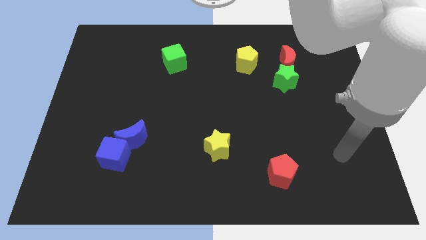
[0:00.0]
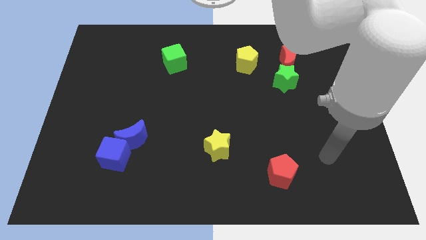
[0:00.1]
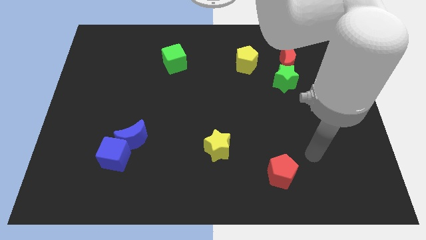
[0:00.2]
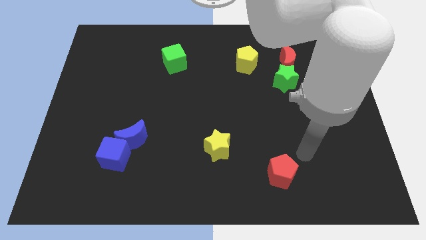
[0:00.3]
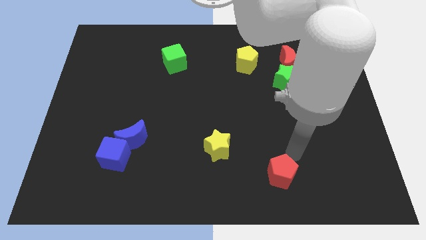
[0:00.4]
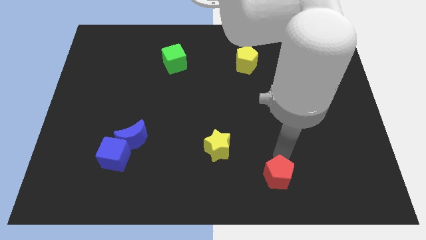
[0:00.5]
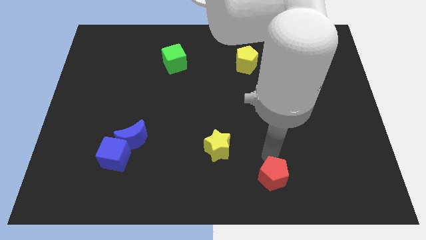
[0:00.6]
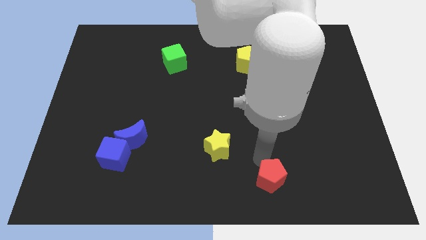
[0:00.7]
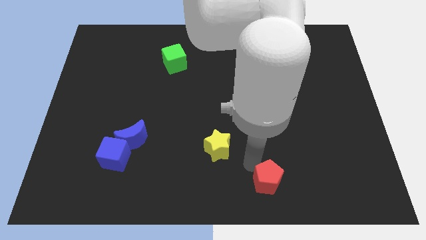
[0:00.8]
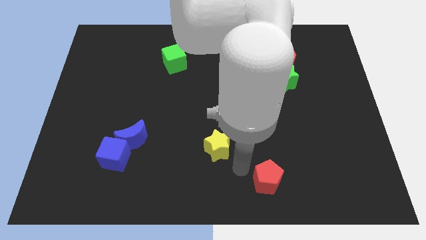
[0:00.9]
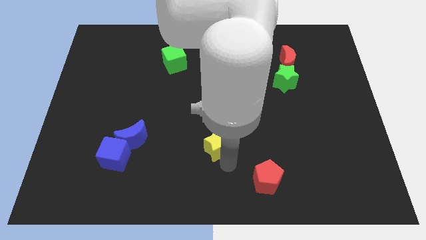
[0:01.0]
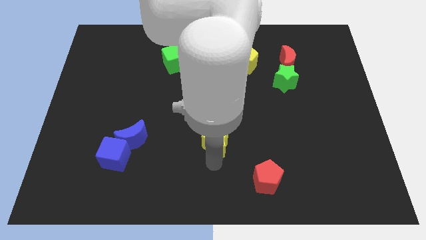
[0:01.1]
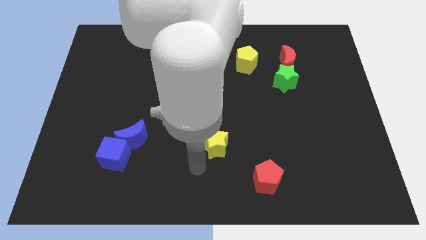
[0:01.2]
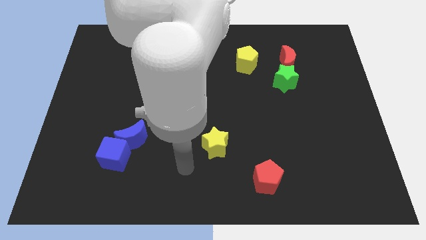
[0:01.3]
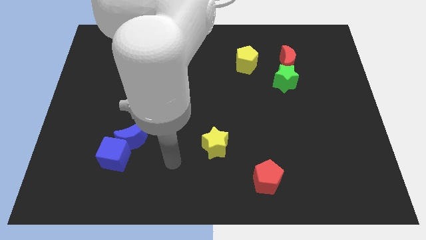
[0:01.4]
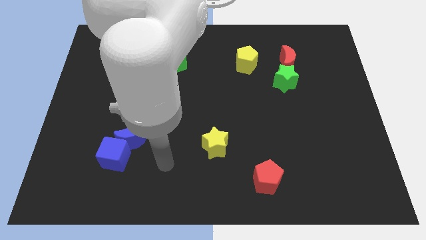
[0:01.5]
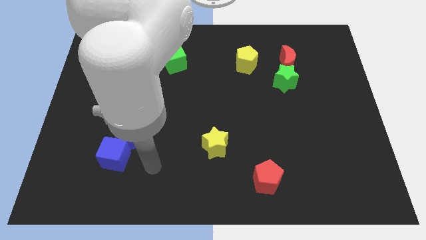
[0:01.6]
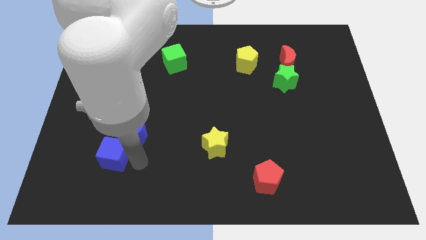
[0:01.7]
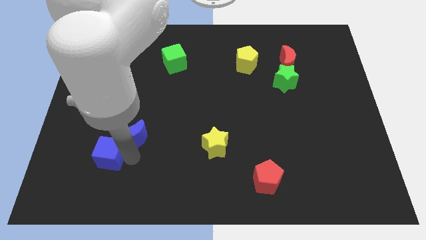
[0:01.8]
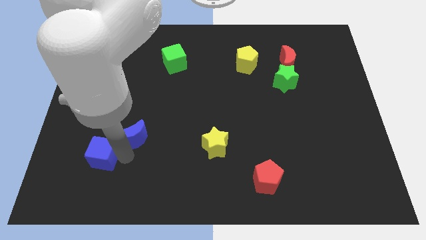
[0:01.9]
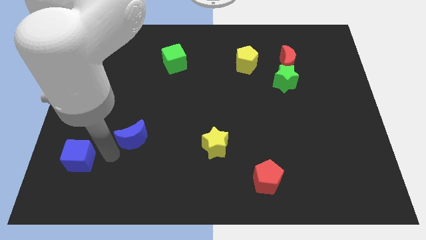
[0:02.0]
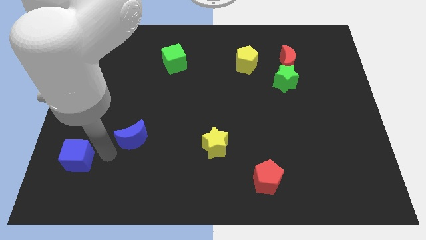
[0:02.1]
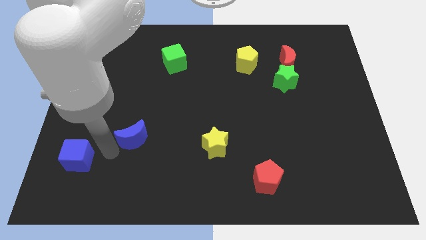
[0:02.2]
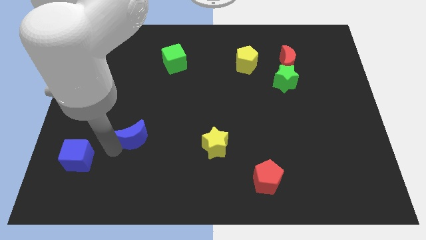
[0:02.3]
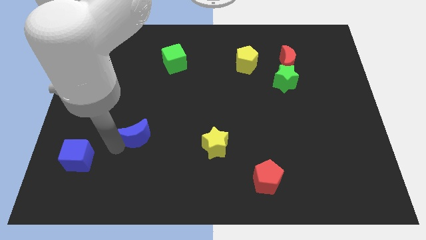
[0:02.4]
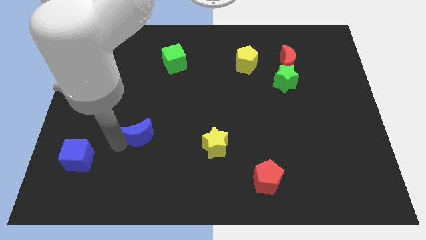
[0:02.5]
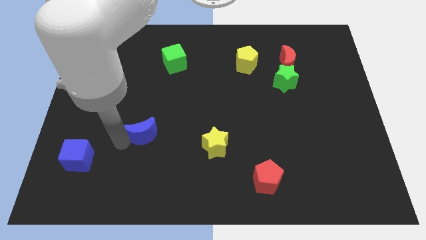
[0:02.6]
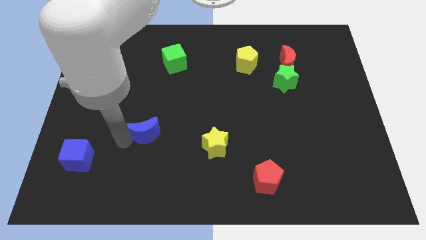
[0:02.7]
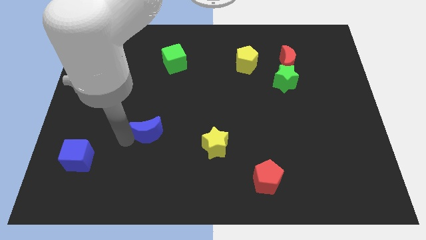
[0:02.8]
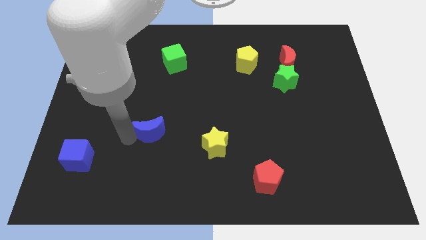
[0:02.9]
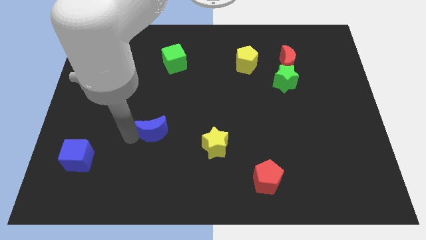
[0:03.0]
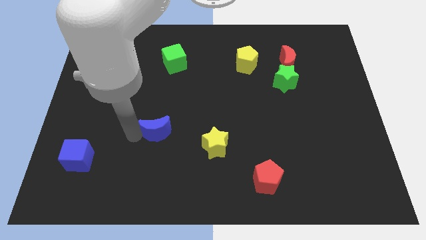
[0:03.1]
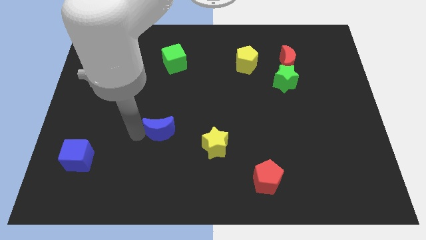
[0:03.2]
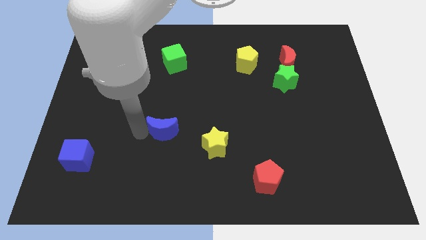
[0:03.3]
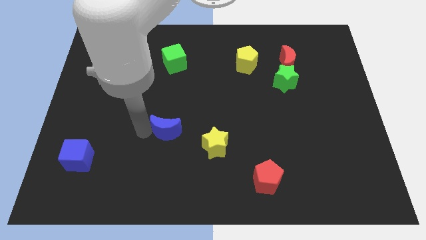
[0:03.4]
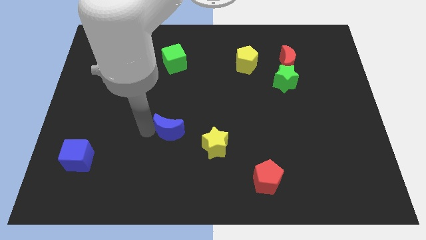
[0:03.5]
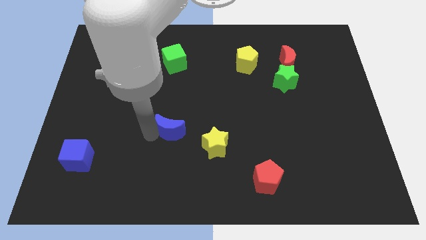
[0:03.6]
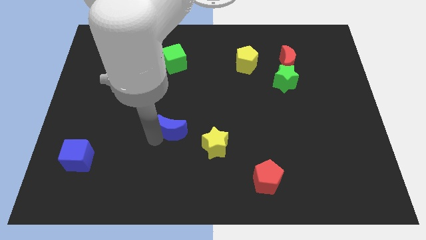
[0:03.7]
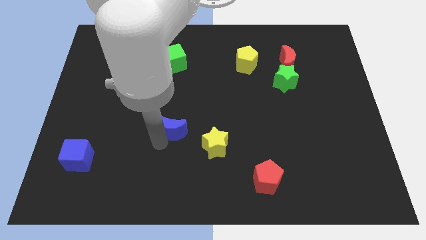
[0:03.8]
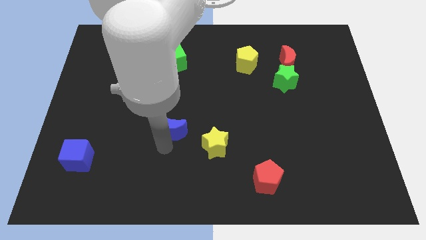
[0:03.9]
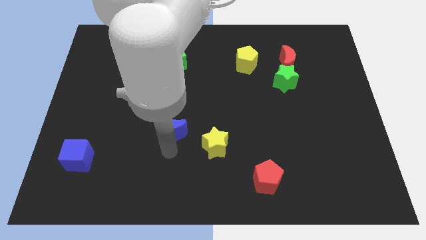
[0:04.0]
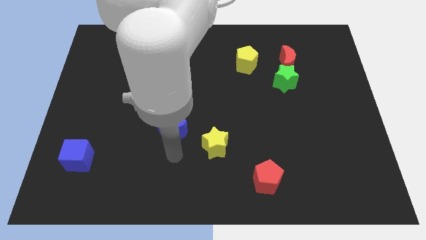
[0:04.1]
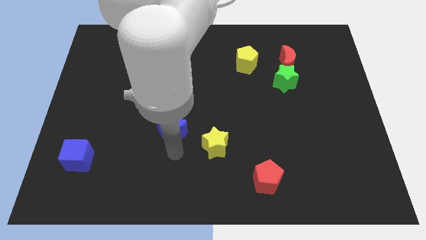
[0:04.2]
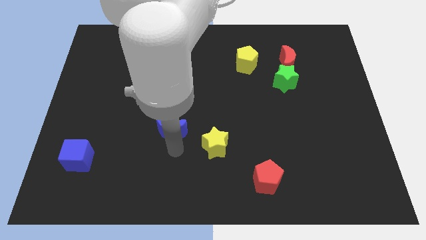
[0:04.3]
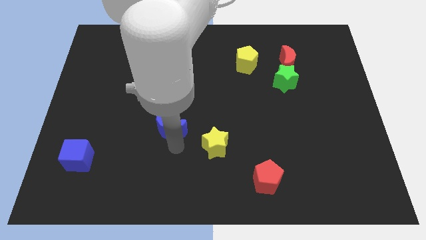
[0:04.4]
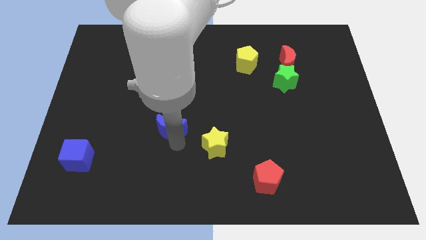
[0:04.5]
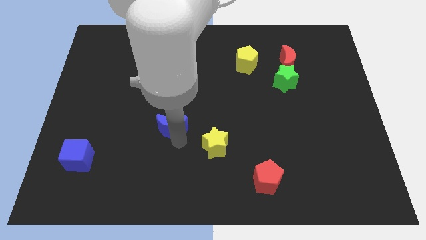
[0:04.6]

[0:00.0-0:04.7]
put the blue moon to the center

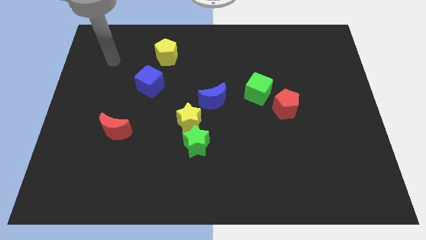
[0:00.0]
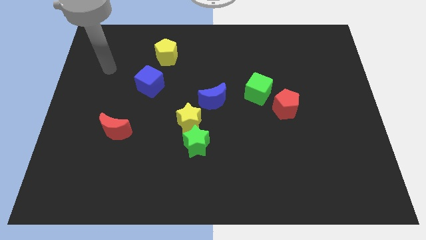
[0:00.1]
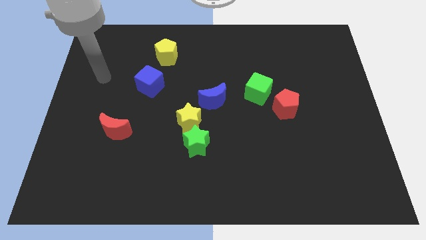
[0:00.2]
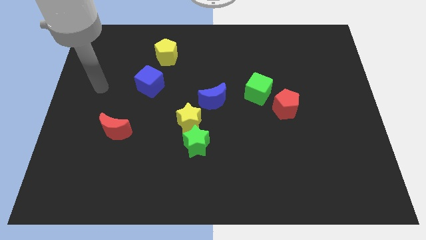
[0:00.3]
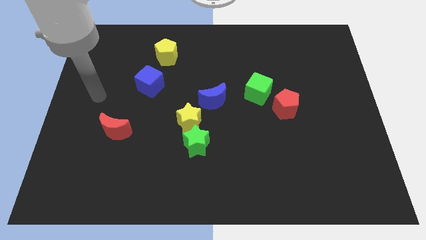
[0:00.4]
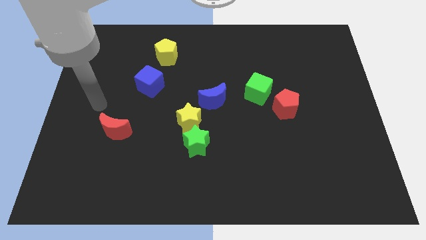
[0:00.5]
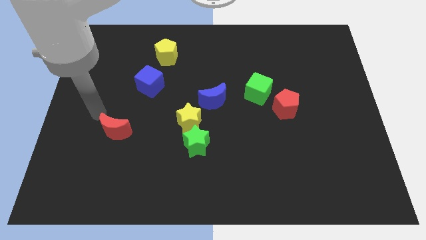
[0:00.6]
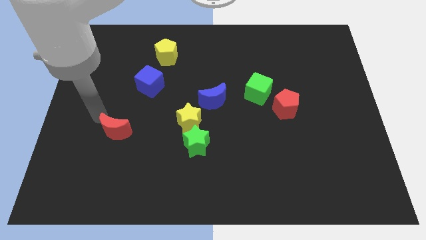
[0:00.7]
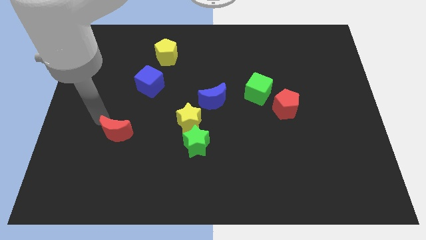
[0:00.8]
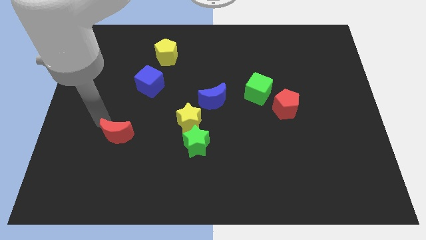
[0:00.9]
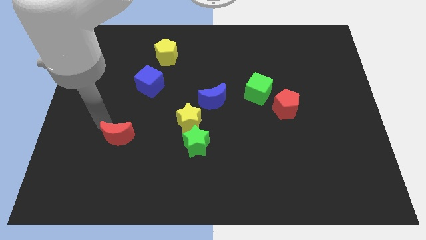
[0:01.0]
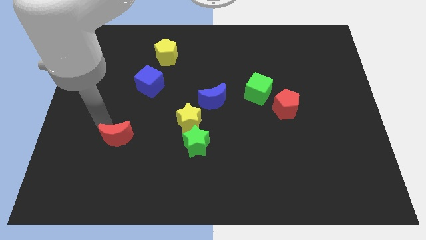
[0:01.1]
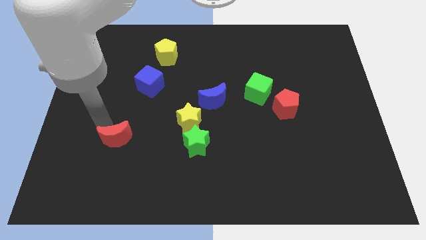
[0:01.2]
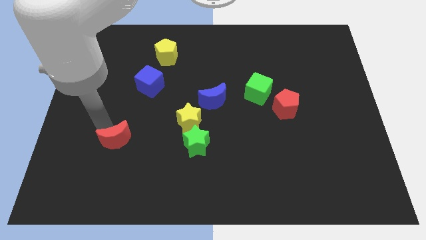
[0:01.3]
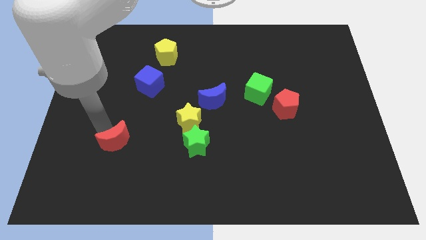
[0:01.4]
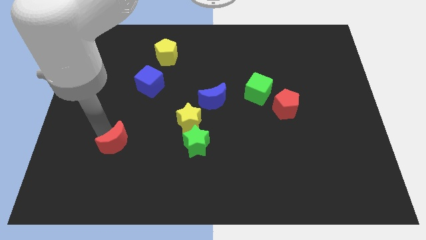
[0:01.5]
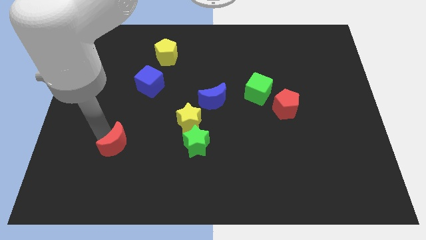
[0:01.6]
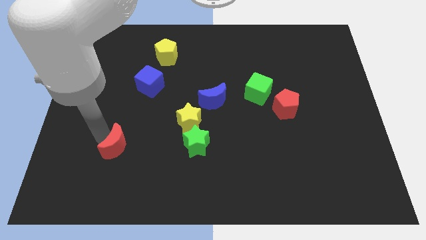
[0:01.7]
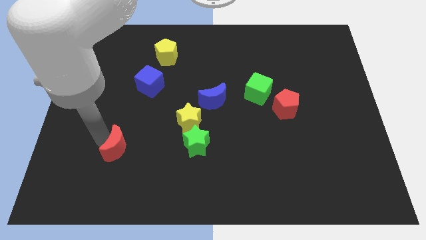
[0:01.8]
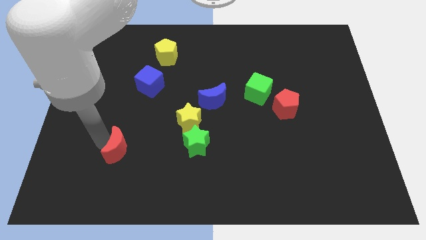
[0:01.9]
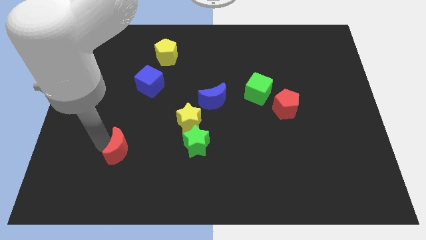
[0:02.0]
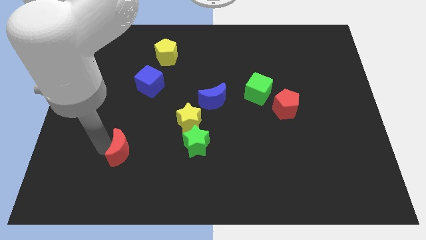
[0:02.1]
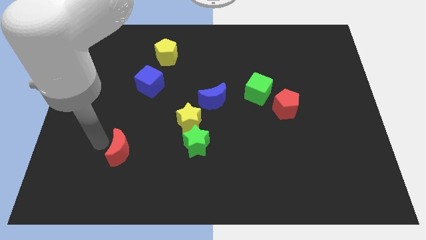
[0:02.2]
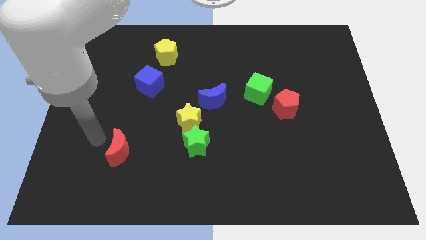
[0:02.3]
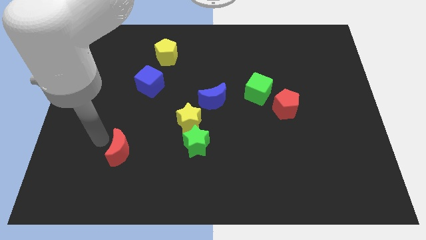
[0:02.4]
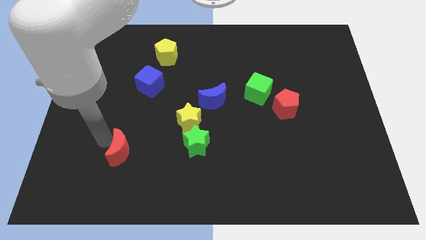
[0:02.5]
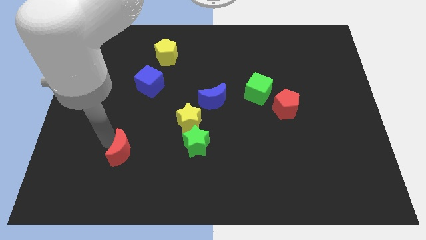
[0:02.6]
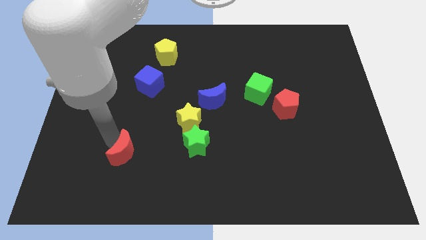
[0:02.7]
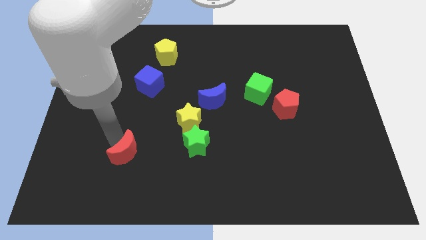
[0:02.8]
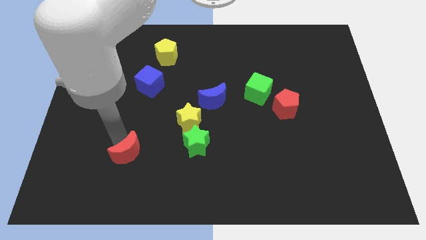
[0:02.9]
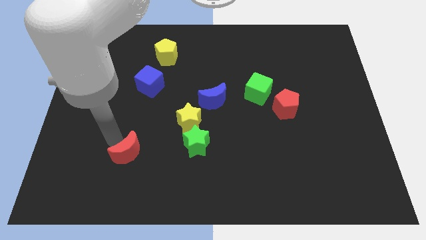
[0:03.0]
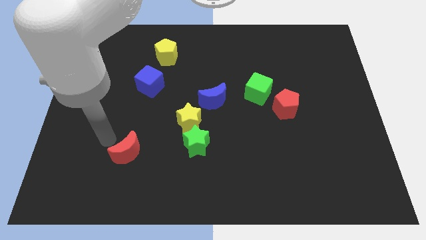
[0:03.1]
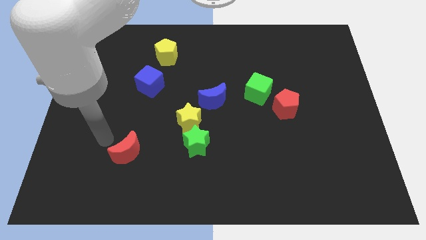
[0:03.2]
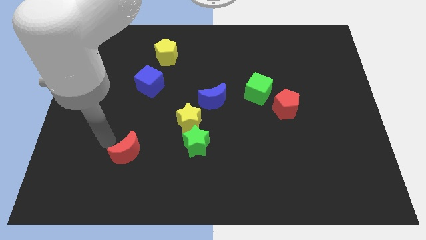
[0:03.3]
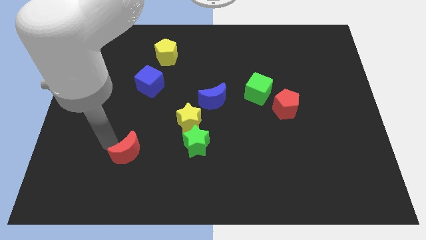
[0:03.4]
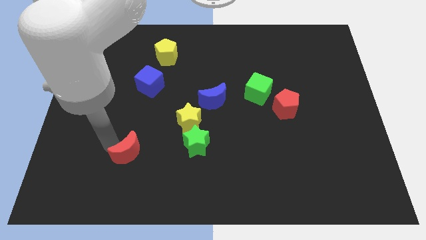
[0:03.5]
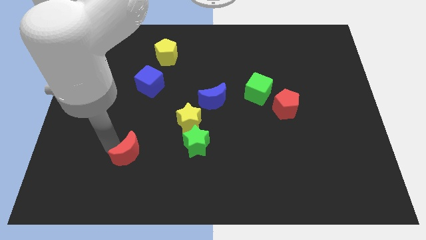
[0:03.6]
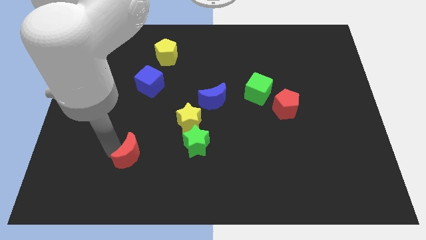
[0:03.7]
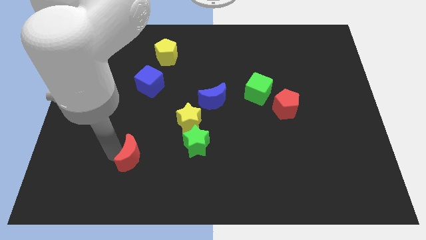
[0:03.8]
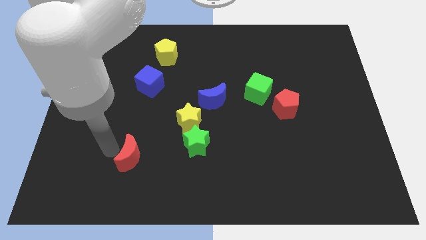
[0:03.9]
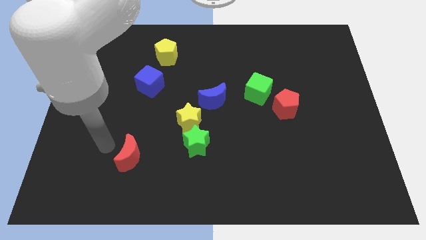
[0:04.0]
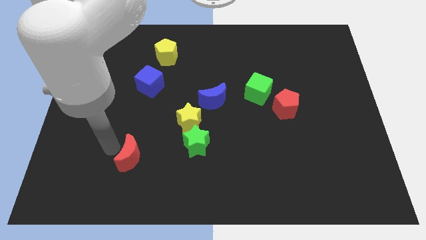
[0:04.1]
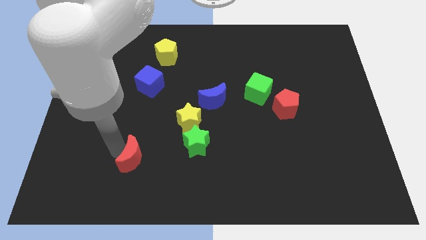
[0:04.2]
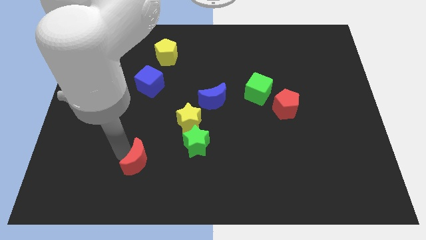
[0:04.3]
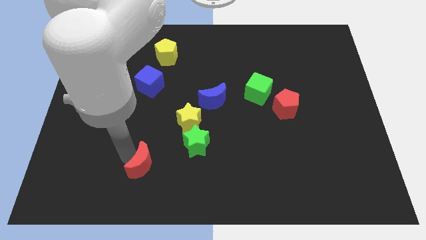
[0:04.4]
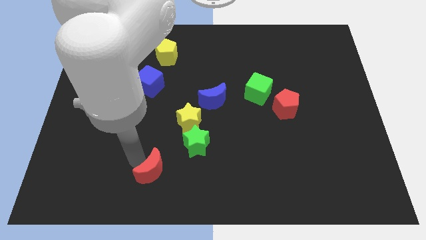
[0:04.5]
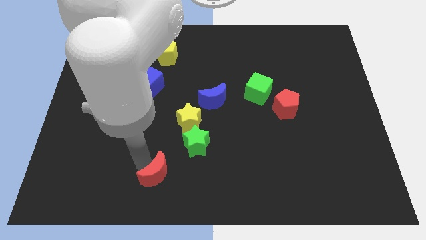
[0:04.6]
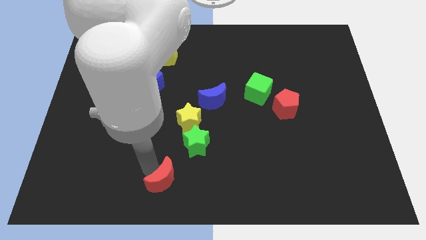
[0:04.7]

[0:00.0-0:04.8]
move the red moon to the bottom side
